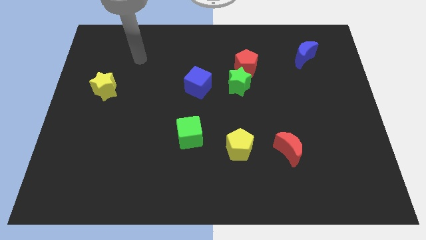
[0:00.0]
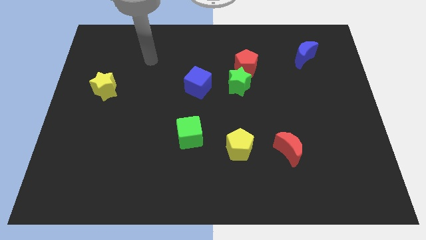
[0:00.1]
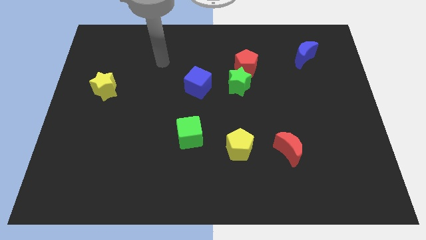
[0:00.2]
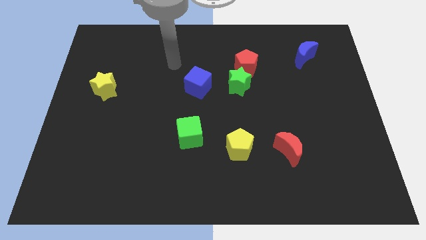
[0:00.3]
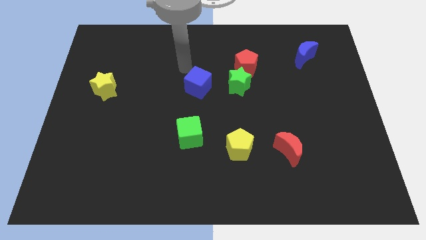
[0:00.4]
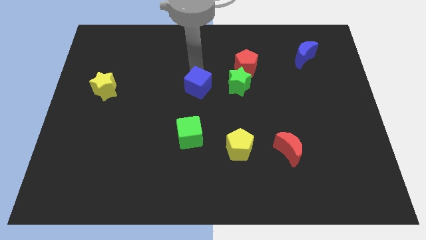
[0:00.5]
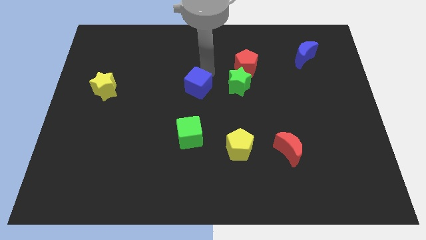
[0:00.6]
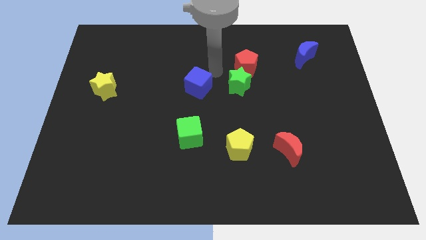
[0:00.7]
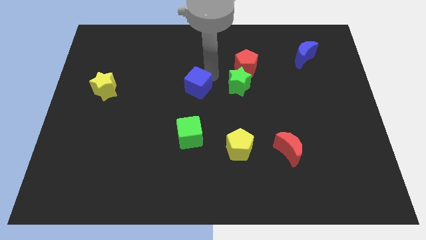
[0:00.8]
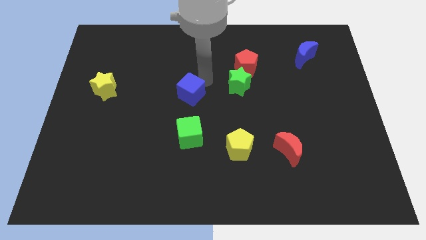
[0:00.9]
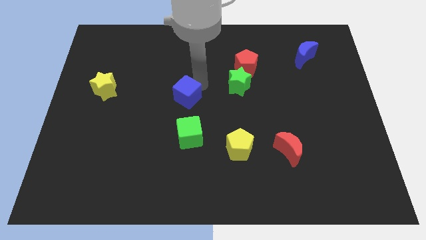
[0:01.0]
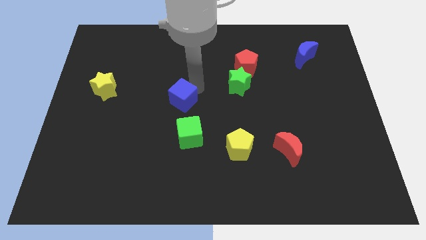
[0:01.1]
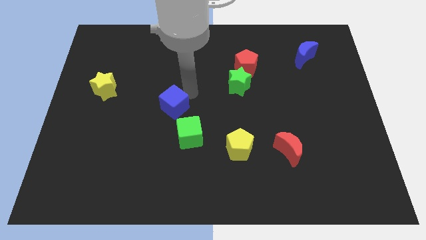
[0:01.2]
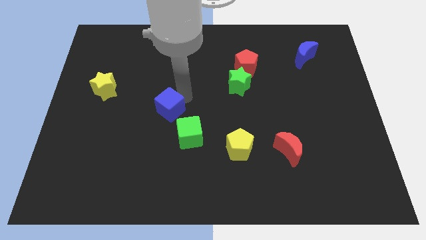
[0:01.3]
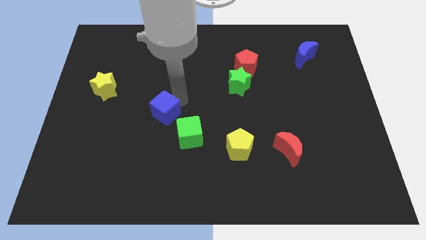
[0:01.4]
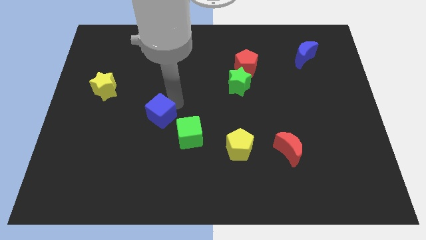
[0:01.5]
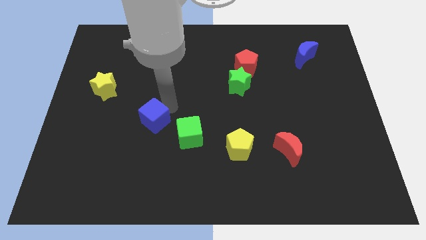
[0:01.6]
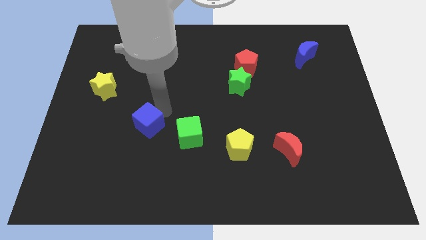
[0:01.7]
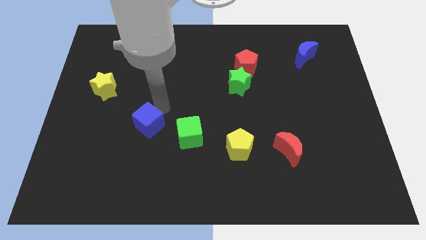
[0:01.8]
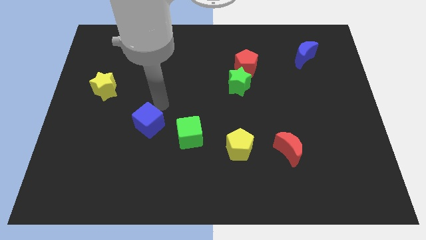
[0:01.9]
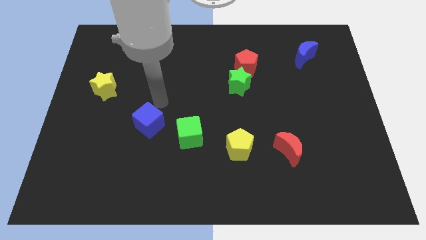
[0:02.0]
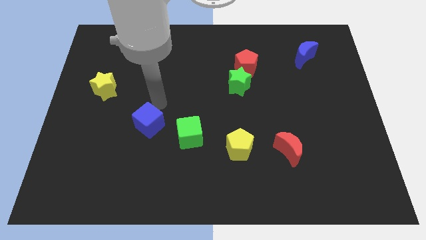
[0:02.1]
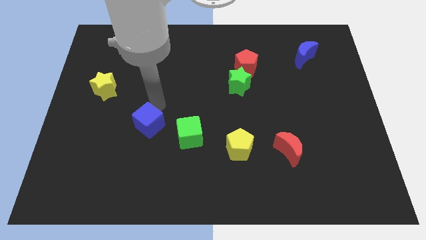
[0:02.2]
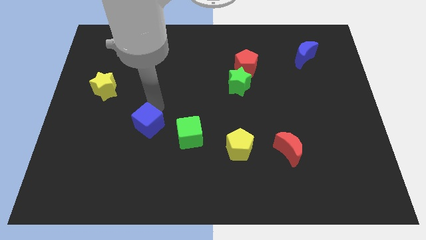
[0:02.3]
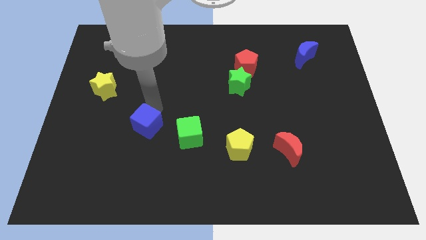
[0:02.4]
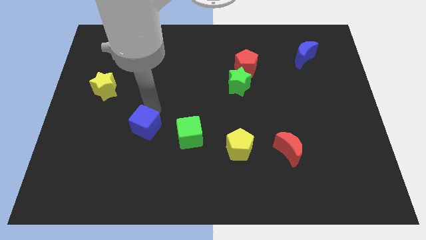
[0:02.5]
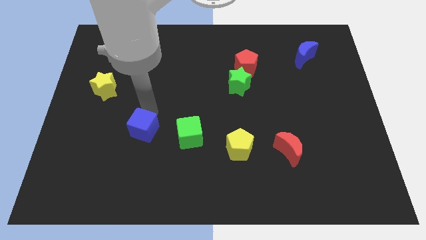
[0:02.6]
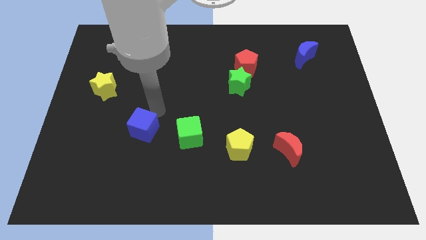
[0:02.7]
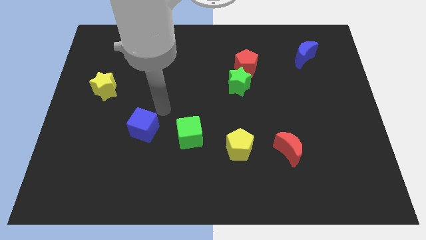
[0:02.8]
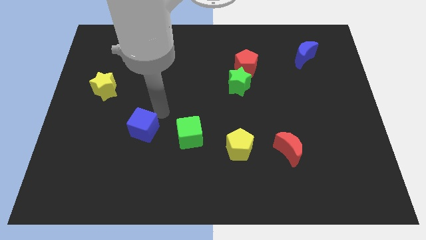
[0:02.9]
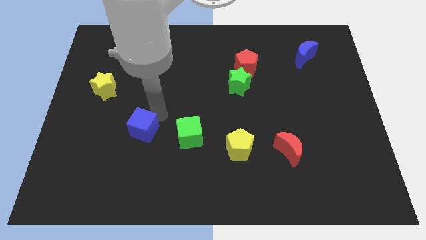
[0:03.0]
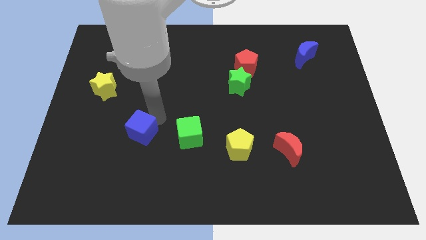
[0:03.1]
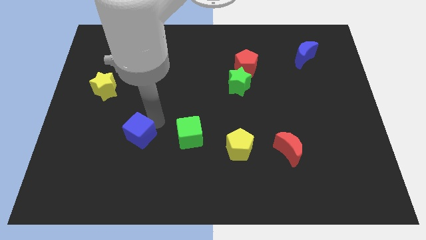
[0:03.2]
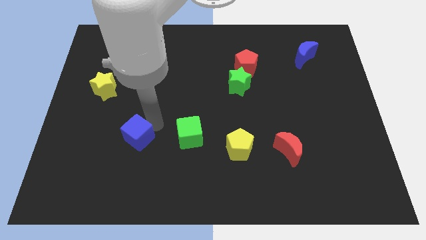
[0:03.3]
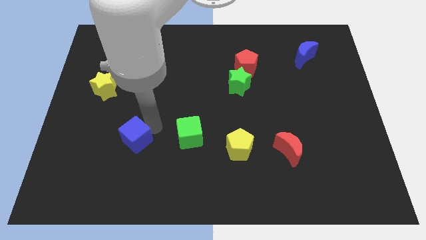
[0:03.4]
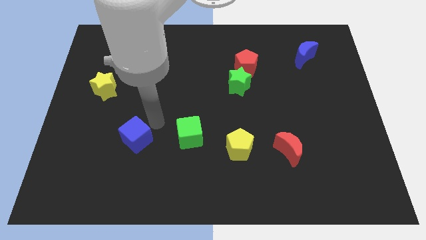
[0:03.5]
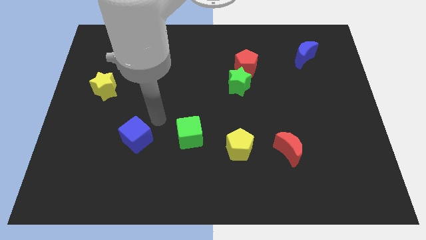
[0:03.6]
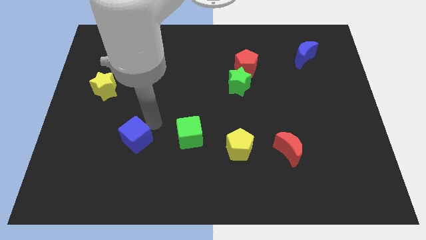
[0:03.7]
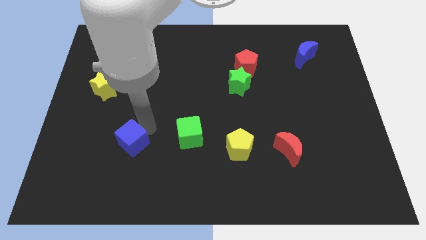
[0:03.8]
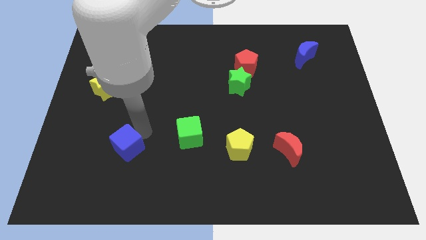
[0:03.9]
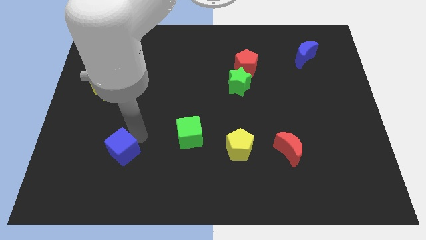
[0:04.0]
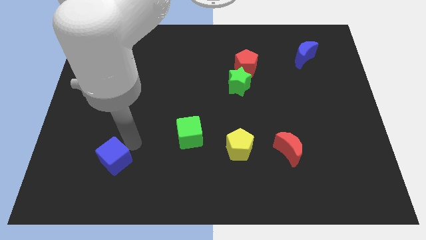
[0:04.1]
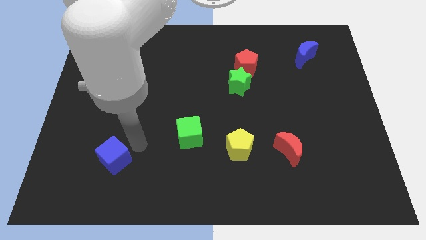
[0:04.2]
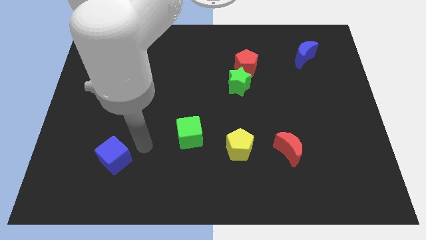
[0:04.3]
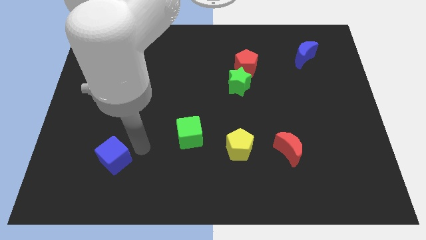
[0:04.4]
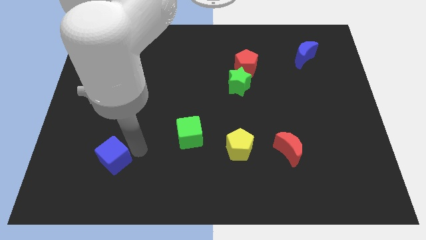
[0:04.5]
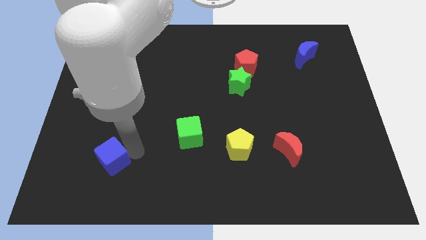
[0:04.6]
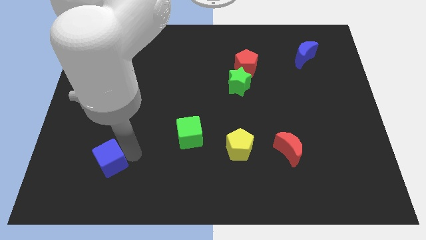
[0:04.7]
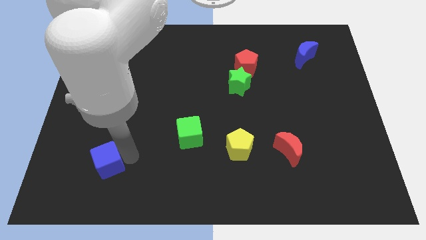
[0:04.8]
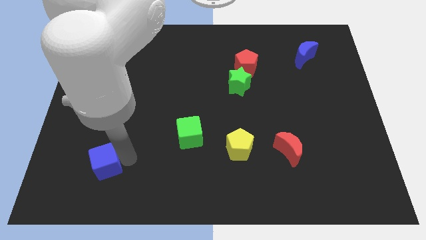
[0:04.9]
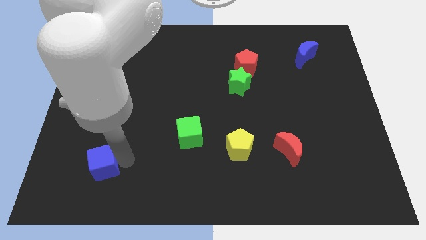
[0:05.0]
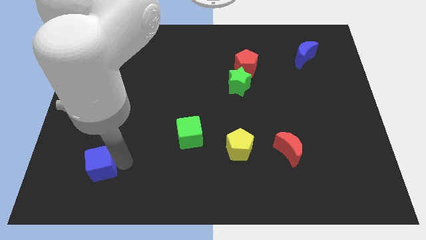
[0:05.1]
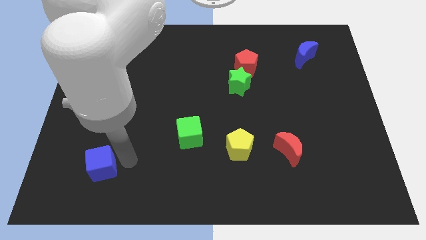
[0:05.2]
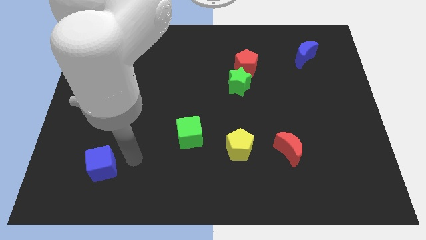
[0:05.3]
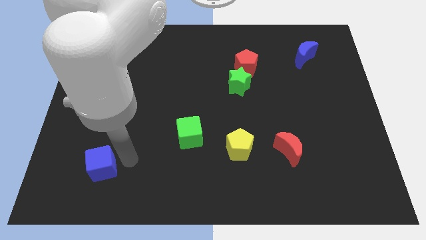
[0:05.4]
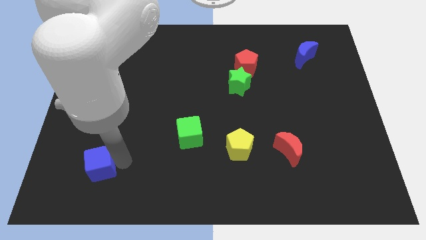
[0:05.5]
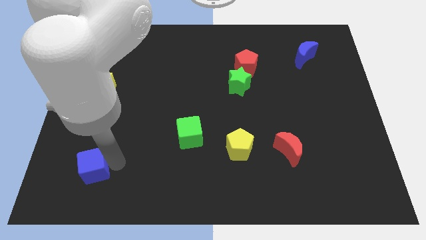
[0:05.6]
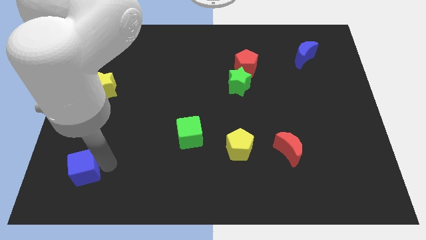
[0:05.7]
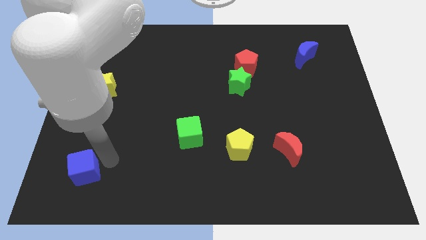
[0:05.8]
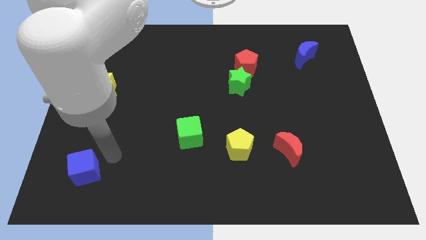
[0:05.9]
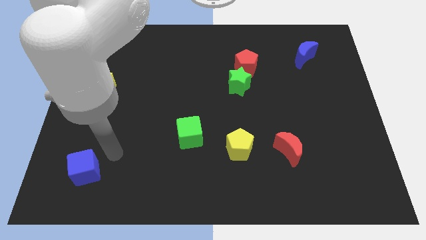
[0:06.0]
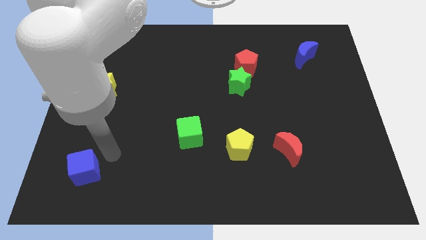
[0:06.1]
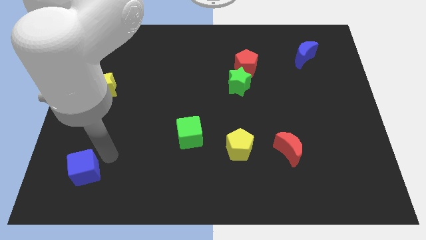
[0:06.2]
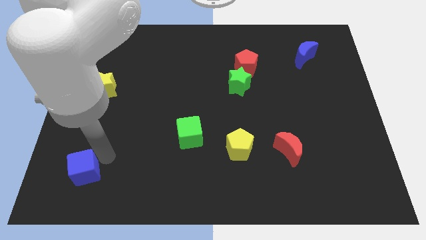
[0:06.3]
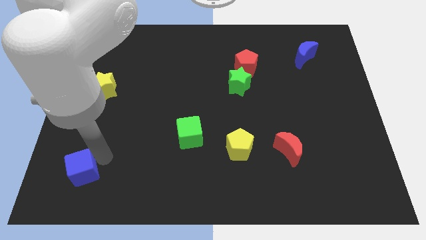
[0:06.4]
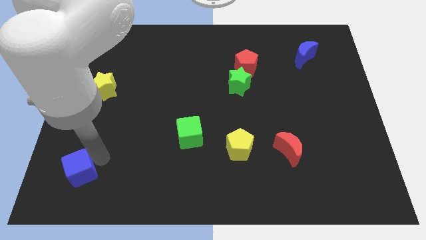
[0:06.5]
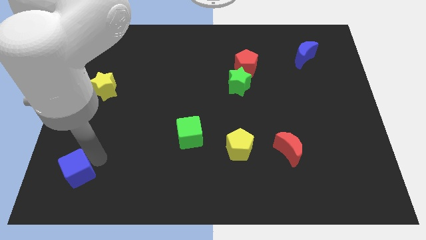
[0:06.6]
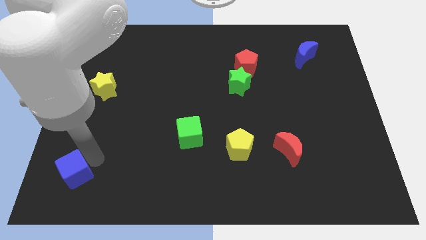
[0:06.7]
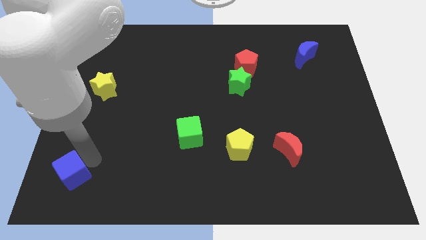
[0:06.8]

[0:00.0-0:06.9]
move the blue cube to the lower left corner
